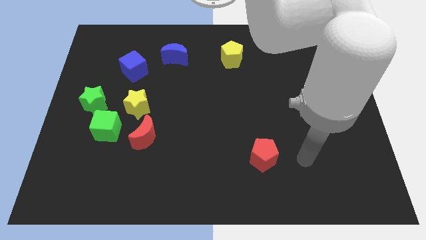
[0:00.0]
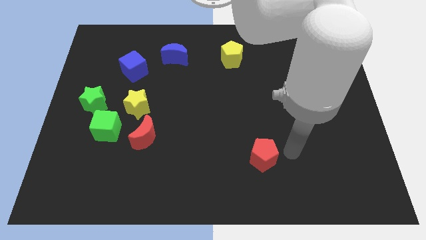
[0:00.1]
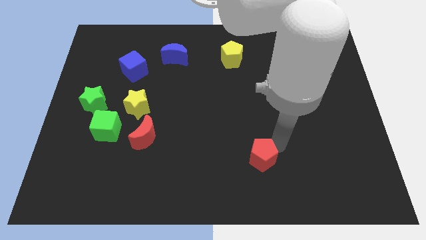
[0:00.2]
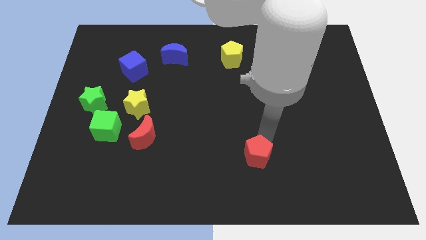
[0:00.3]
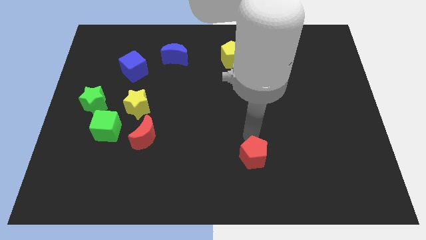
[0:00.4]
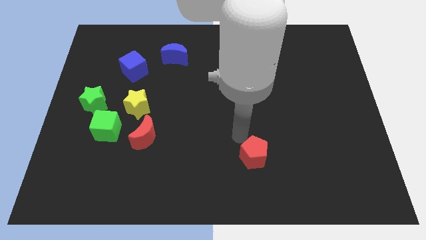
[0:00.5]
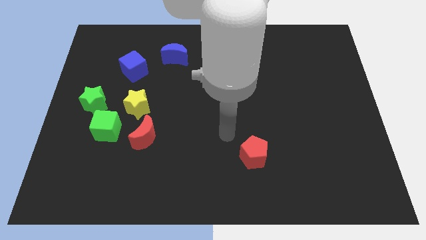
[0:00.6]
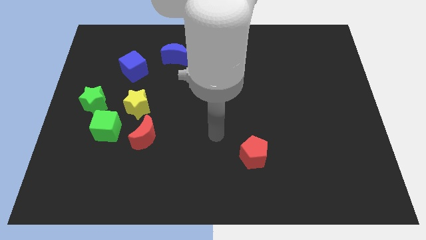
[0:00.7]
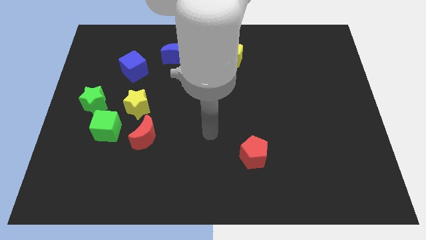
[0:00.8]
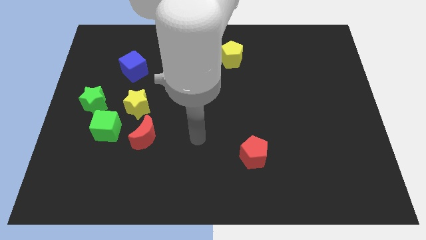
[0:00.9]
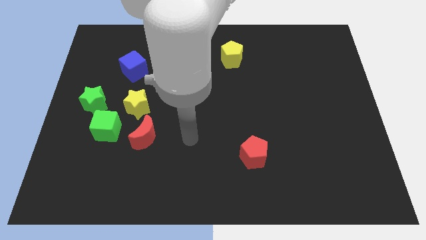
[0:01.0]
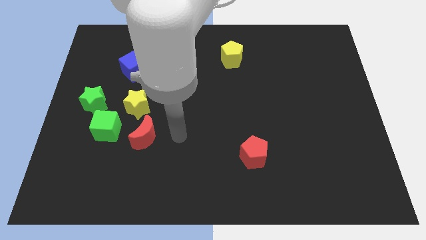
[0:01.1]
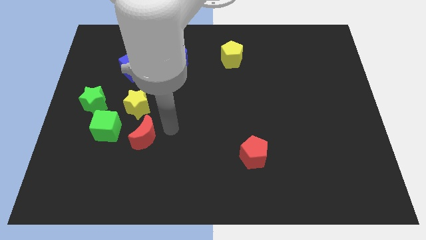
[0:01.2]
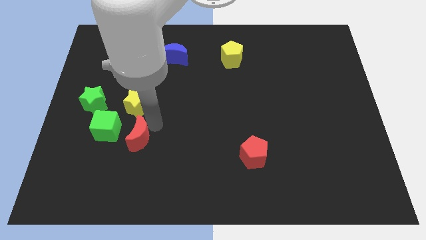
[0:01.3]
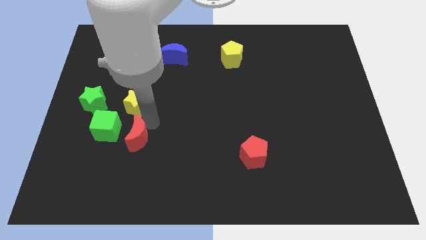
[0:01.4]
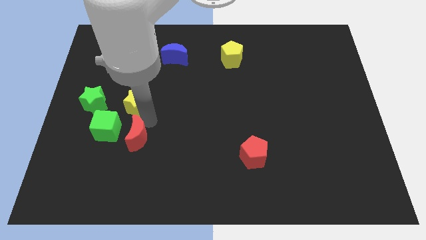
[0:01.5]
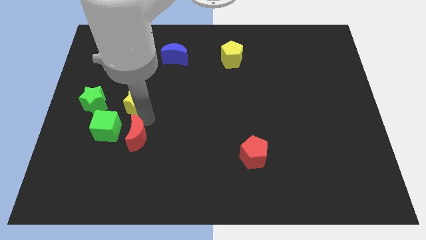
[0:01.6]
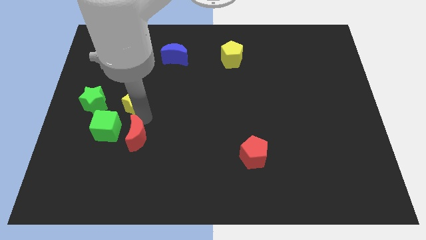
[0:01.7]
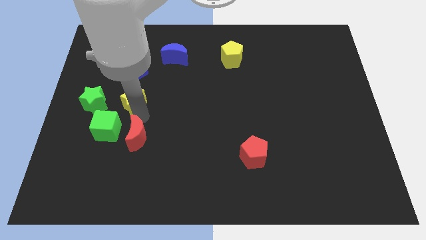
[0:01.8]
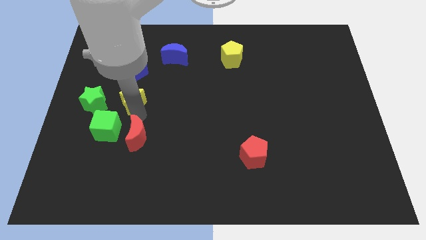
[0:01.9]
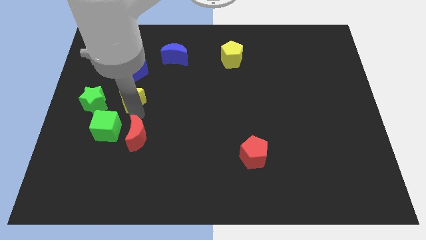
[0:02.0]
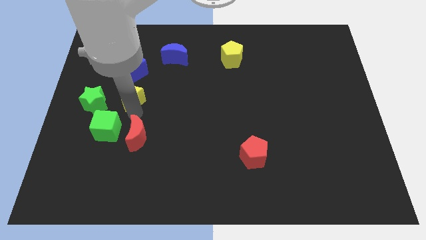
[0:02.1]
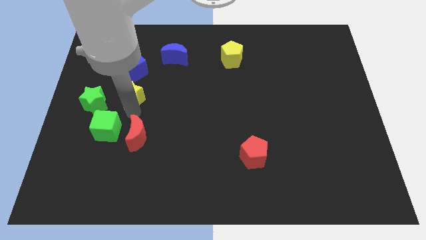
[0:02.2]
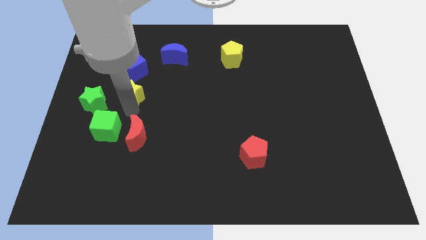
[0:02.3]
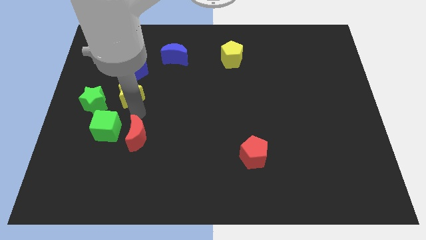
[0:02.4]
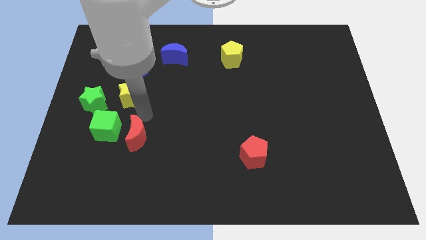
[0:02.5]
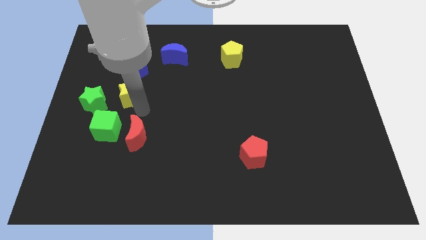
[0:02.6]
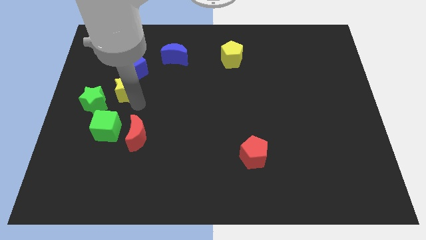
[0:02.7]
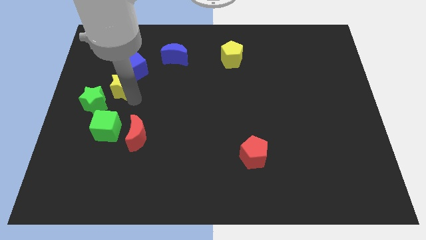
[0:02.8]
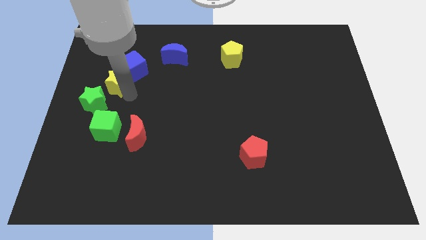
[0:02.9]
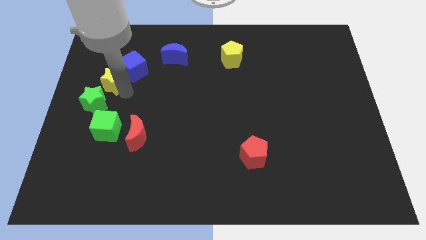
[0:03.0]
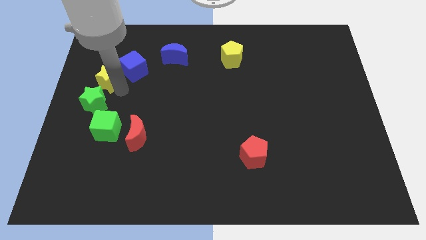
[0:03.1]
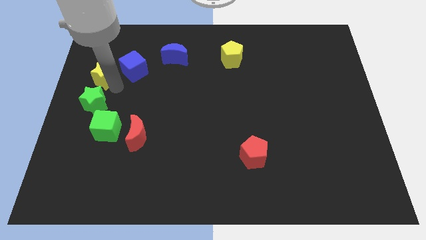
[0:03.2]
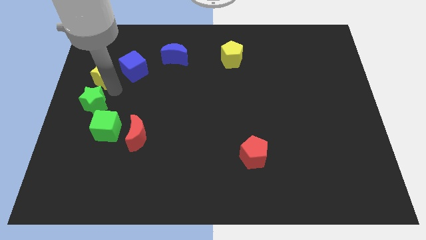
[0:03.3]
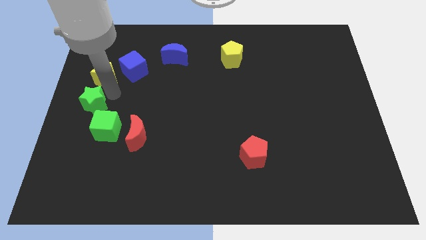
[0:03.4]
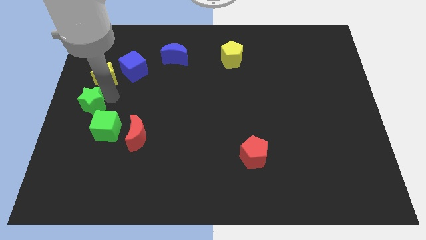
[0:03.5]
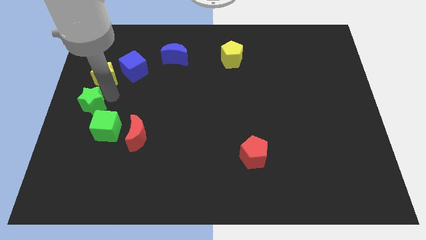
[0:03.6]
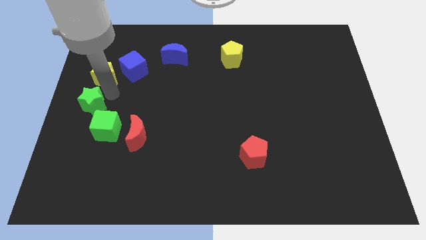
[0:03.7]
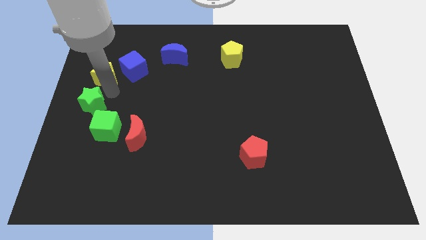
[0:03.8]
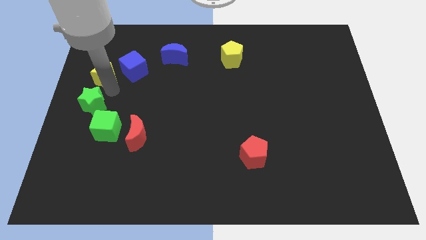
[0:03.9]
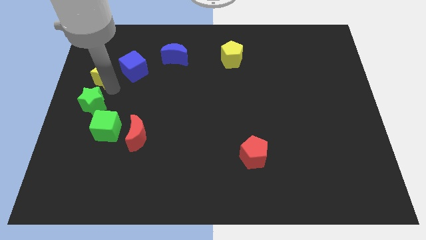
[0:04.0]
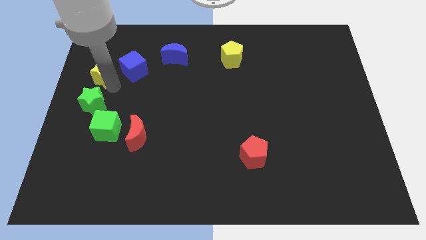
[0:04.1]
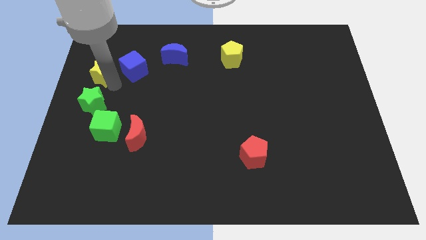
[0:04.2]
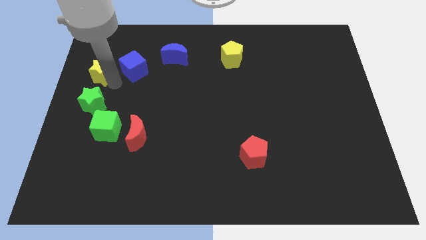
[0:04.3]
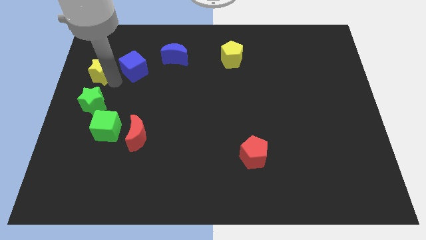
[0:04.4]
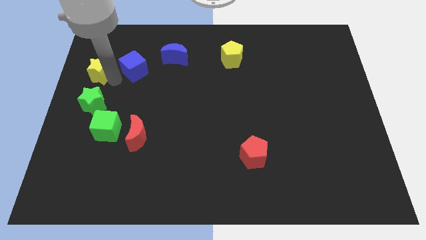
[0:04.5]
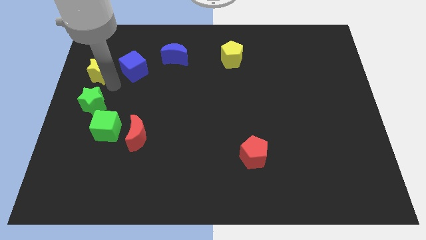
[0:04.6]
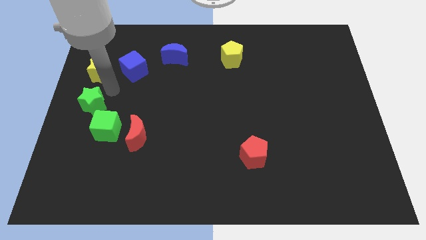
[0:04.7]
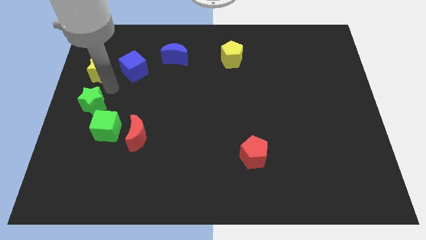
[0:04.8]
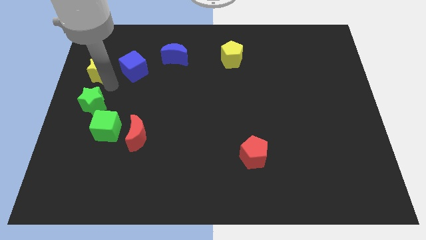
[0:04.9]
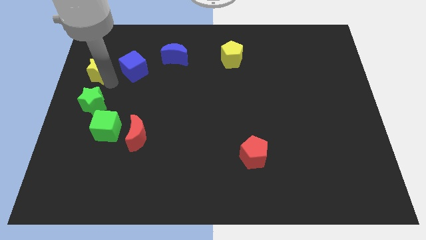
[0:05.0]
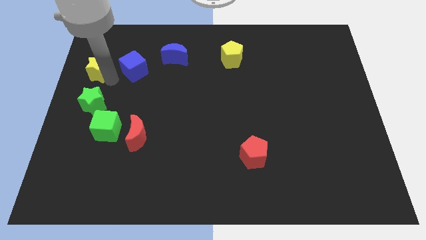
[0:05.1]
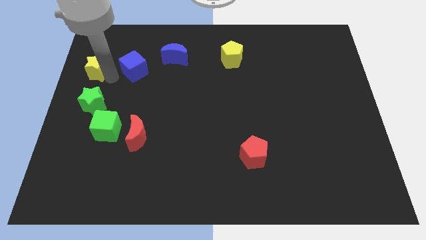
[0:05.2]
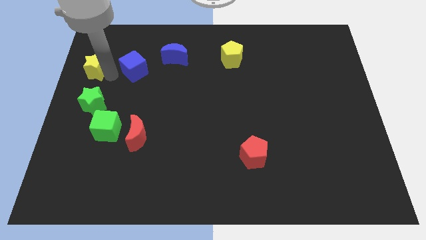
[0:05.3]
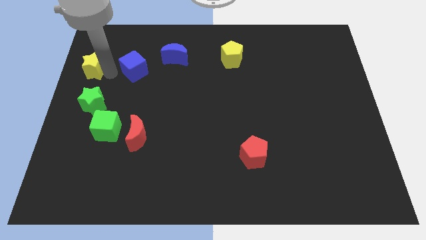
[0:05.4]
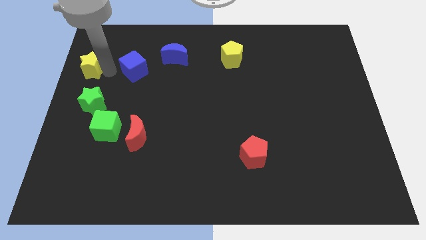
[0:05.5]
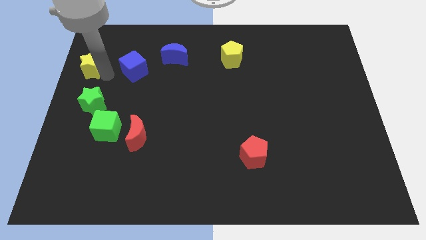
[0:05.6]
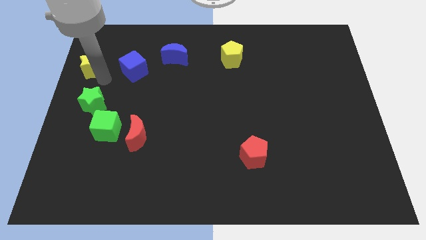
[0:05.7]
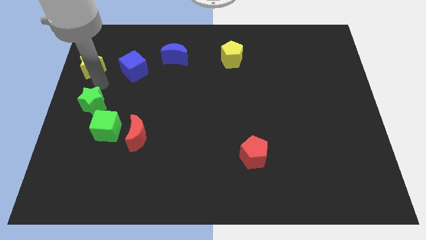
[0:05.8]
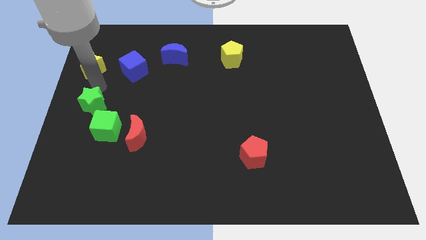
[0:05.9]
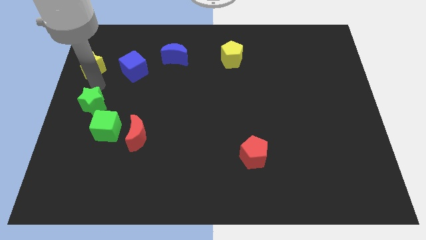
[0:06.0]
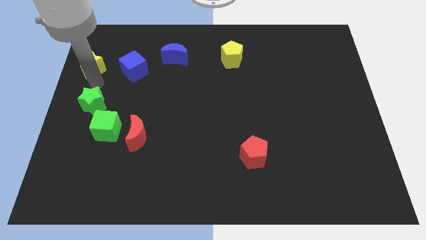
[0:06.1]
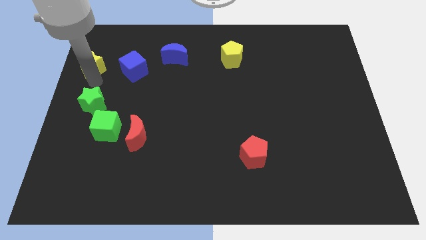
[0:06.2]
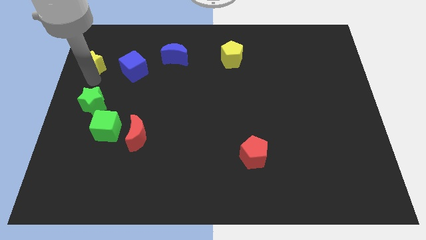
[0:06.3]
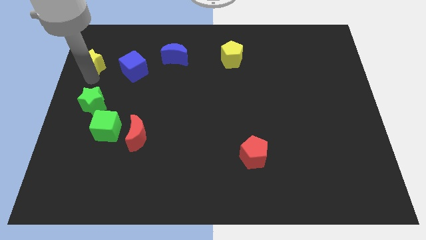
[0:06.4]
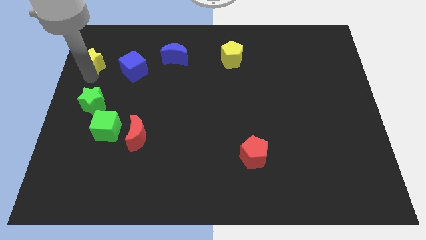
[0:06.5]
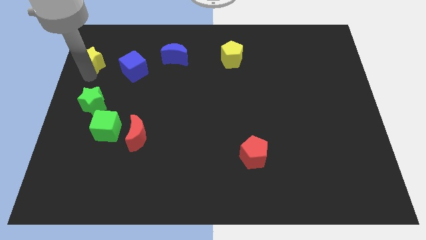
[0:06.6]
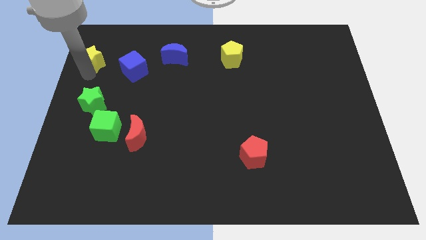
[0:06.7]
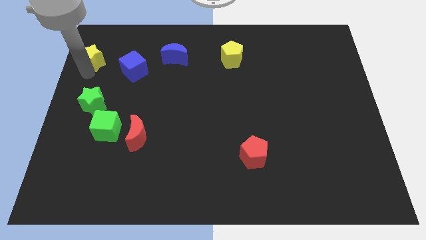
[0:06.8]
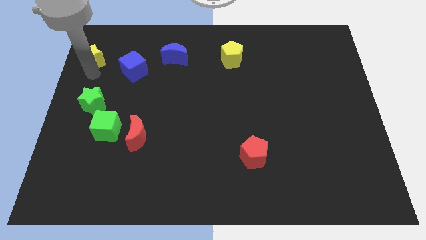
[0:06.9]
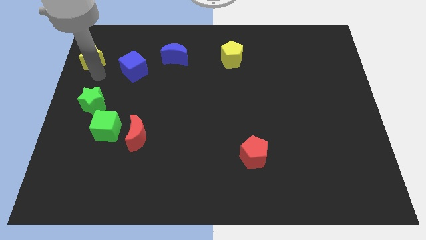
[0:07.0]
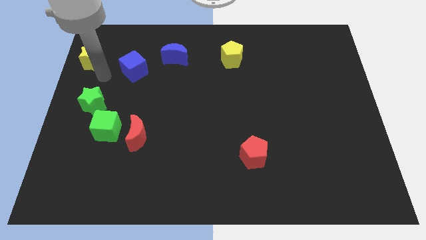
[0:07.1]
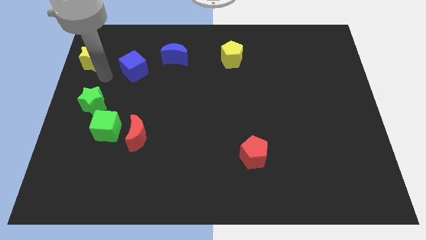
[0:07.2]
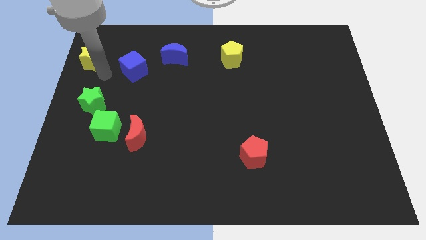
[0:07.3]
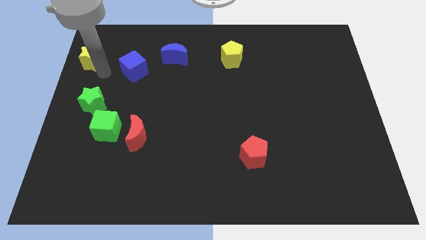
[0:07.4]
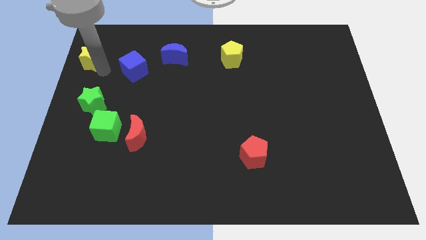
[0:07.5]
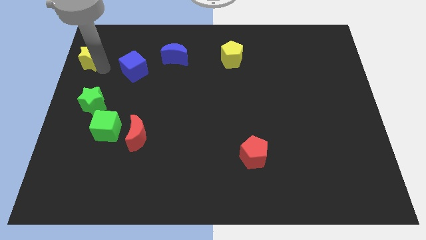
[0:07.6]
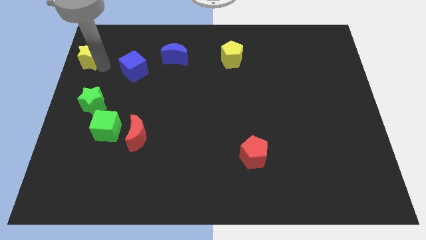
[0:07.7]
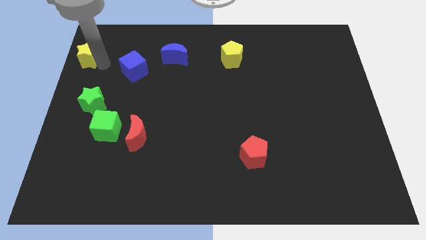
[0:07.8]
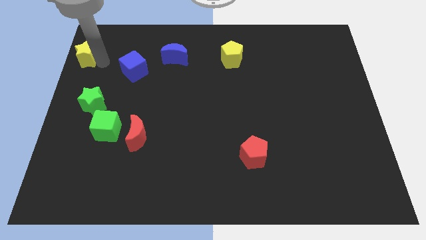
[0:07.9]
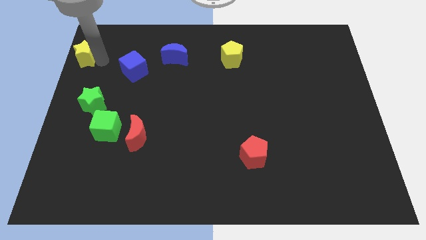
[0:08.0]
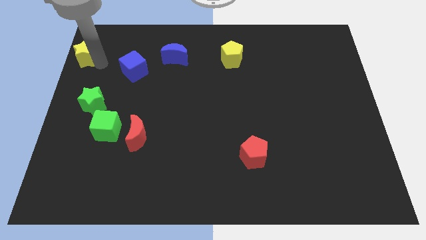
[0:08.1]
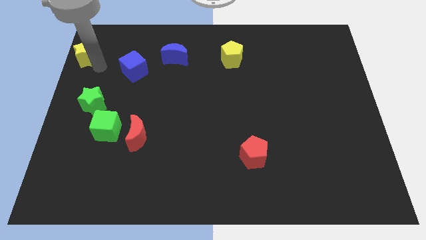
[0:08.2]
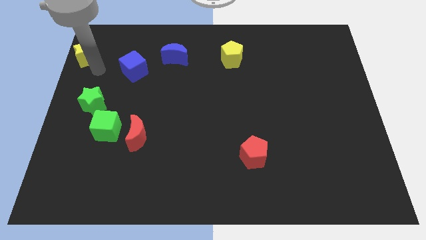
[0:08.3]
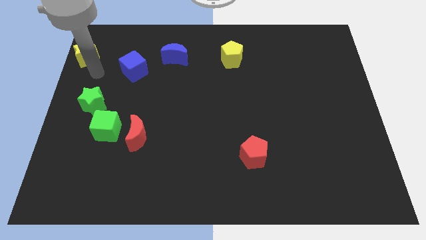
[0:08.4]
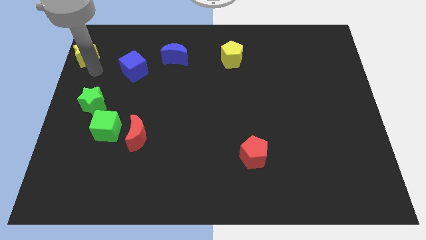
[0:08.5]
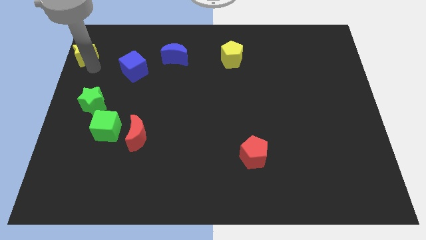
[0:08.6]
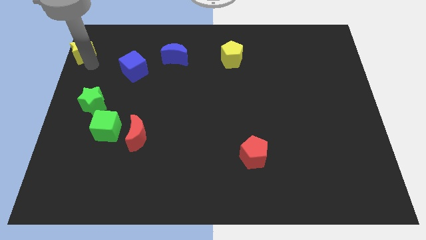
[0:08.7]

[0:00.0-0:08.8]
slide the yellow star to the top left corner
